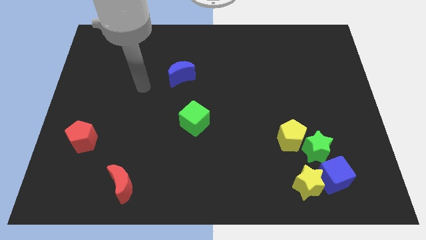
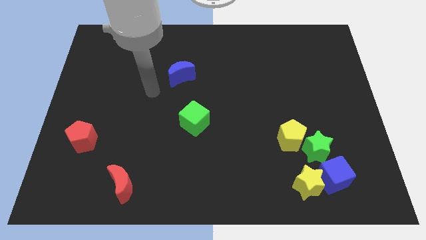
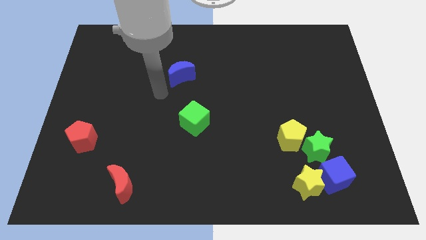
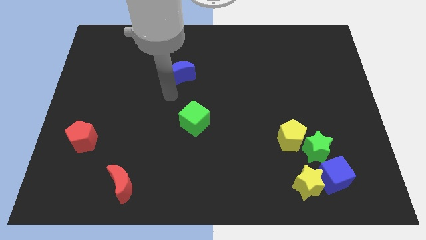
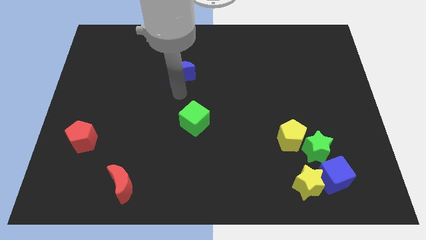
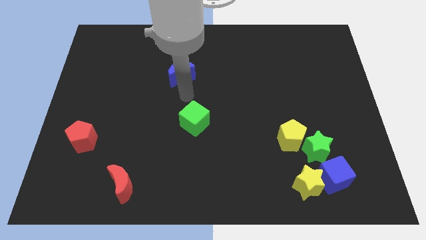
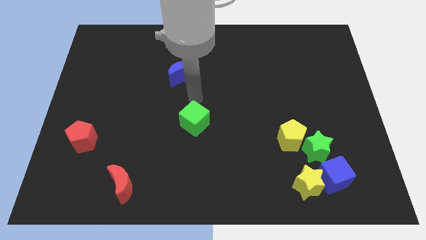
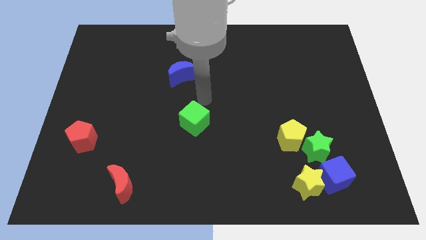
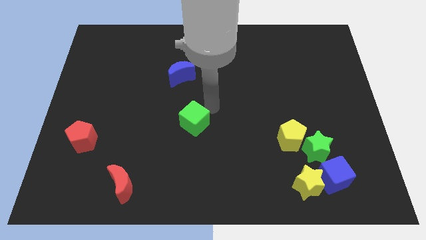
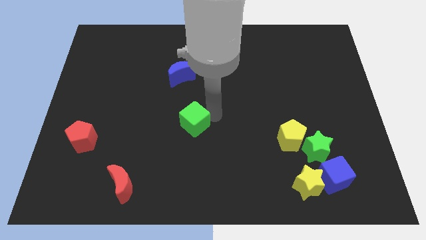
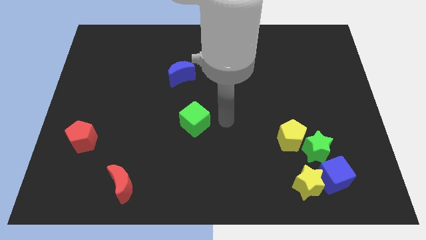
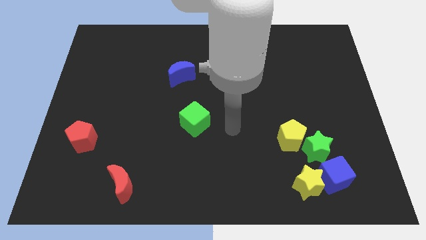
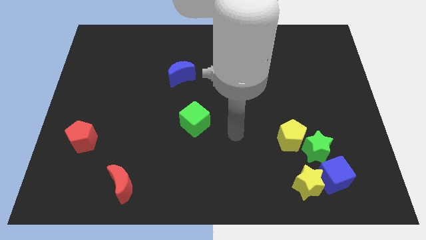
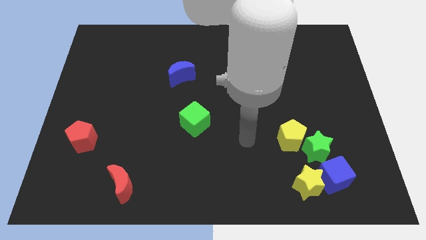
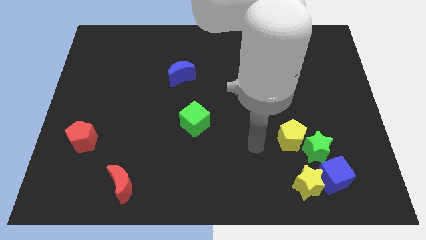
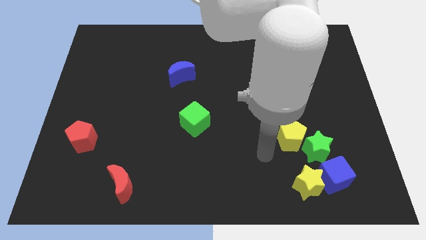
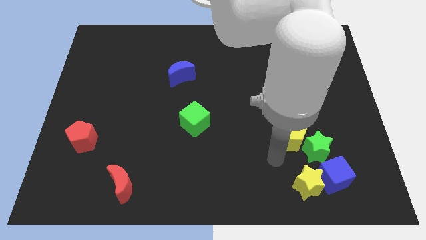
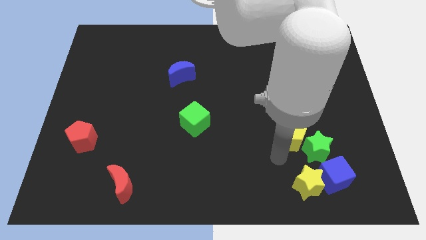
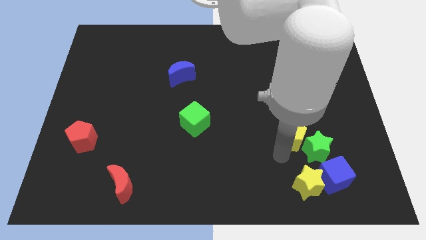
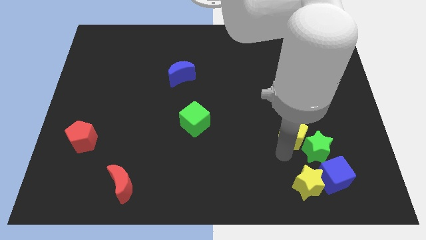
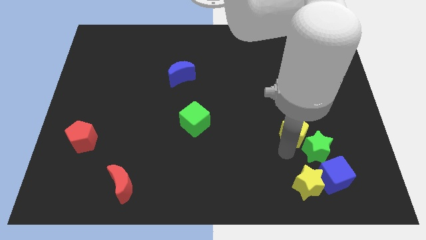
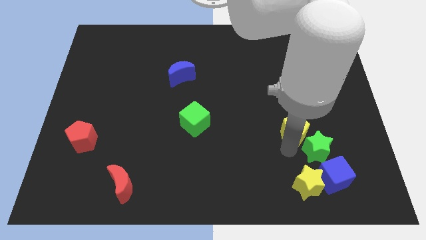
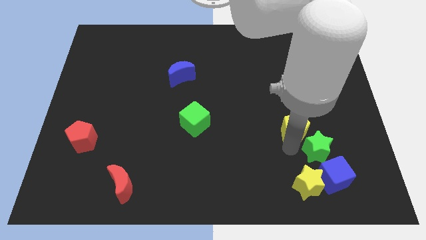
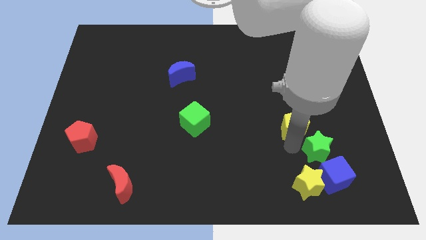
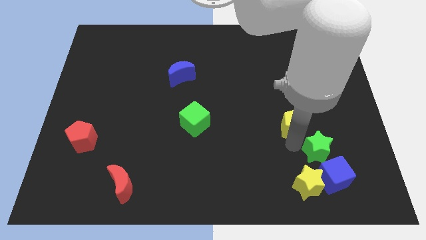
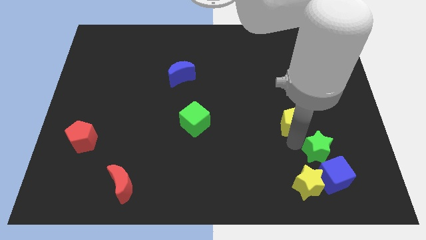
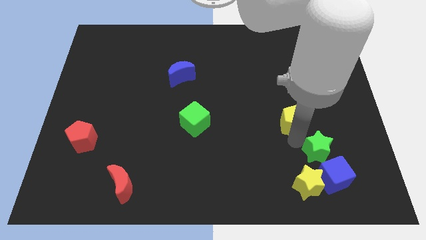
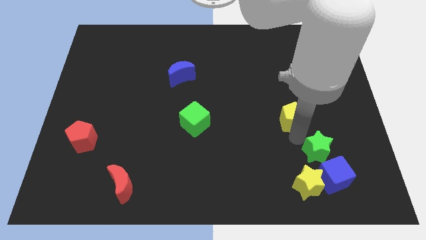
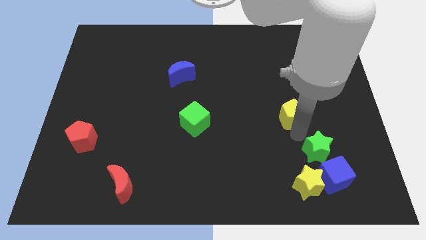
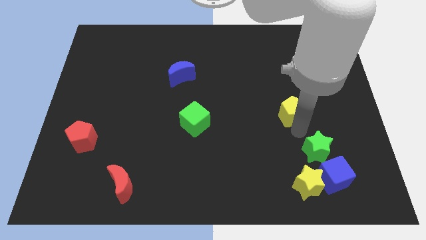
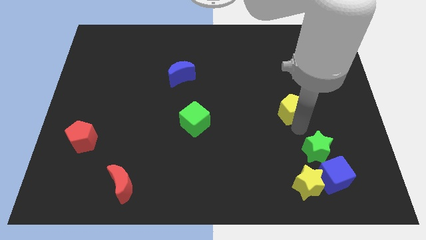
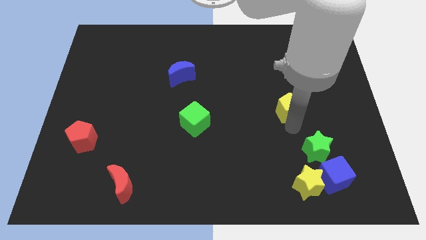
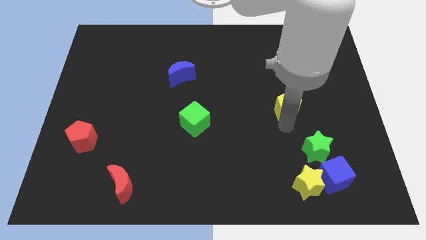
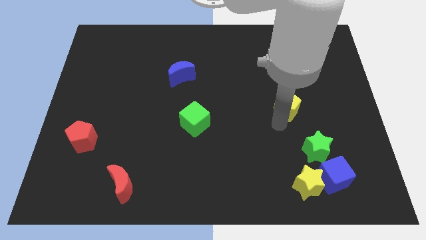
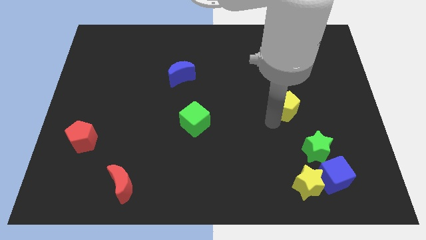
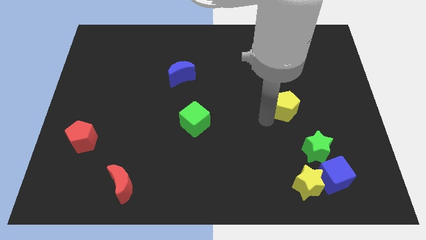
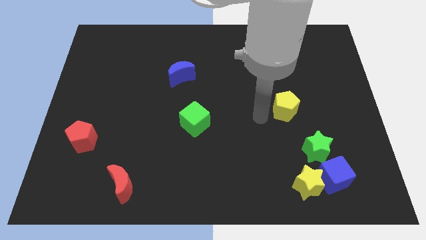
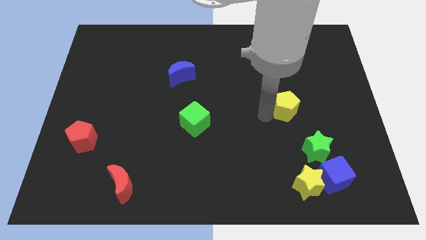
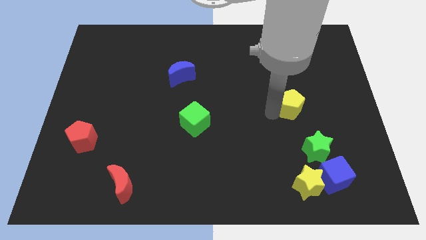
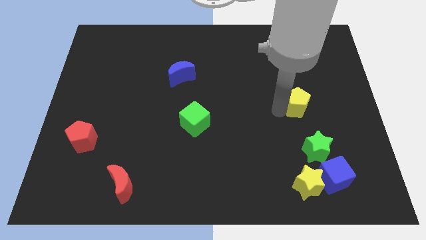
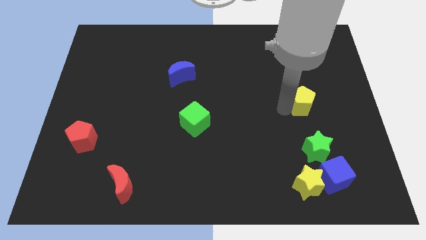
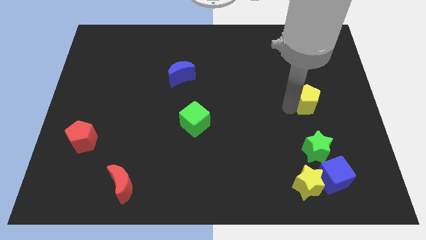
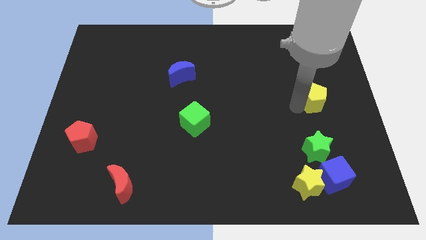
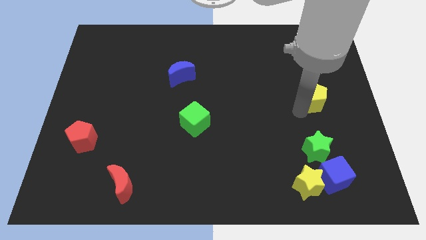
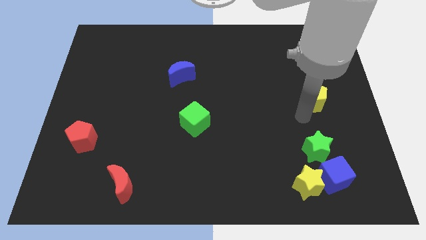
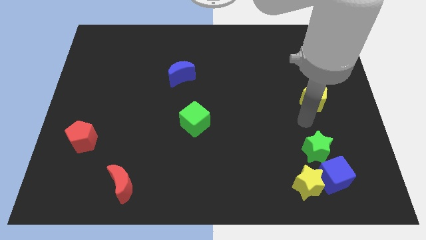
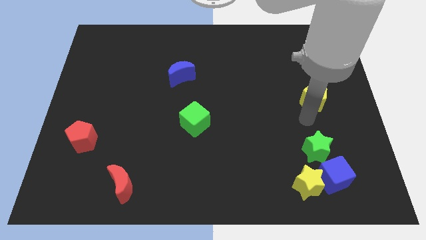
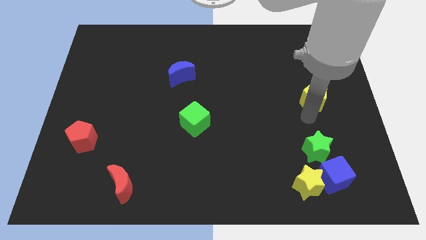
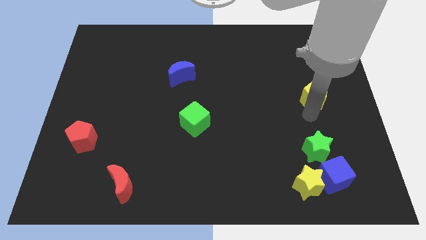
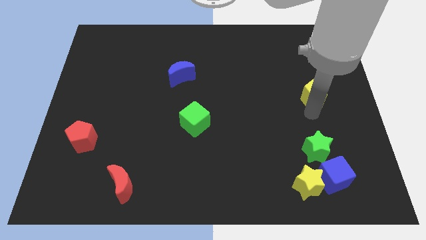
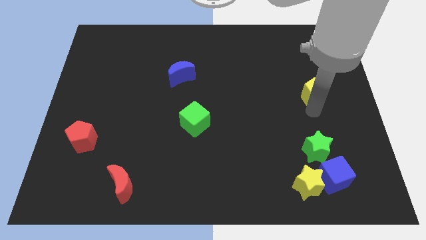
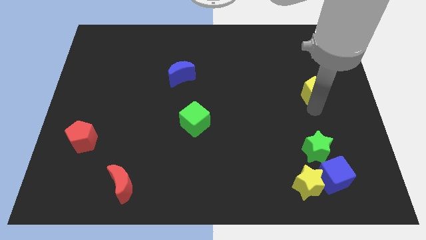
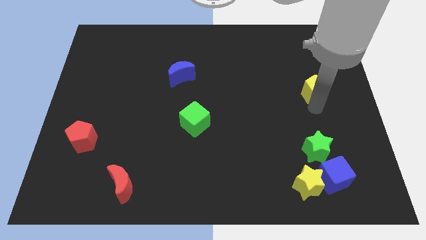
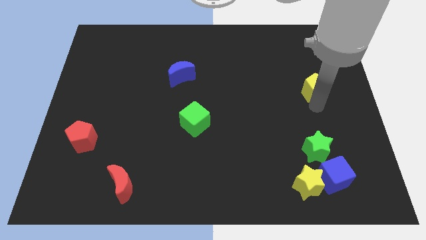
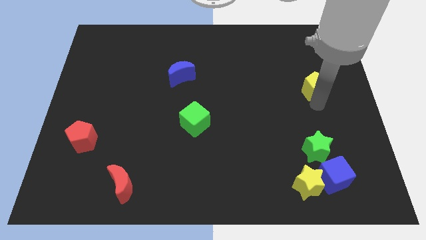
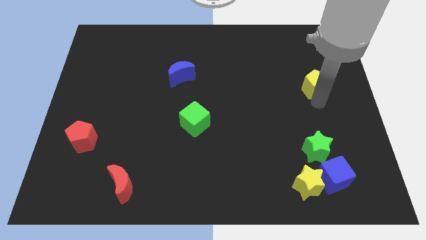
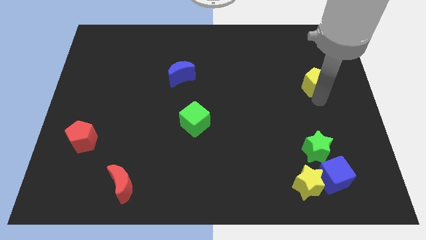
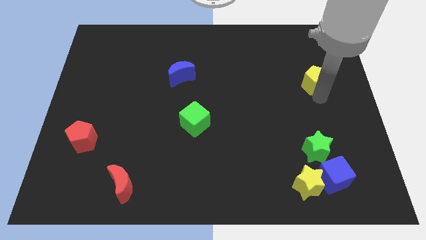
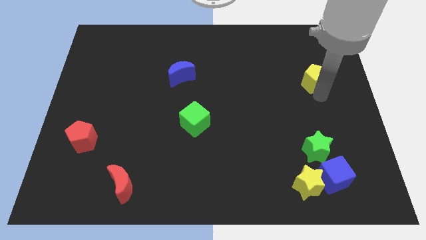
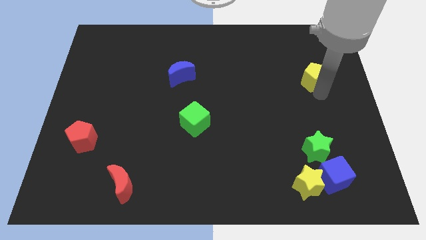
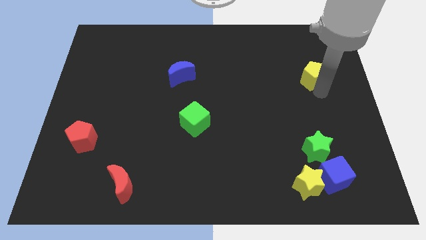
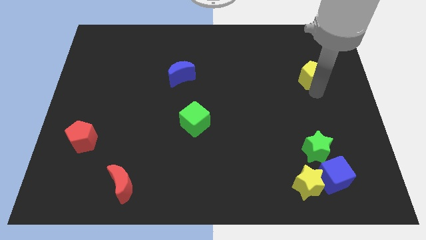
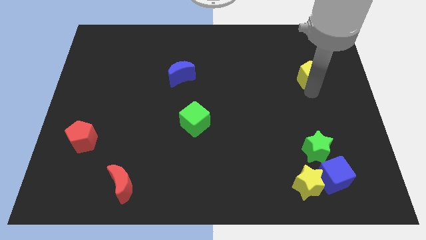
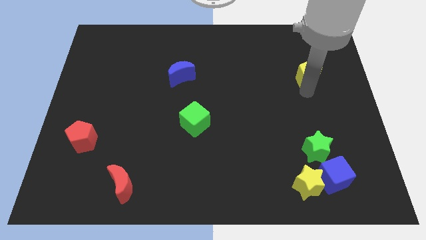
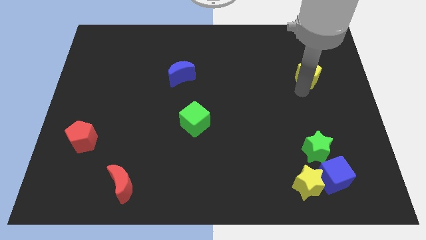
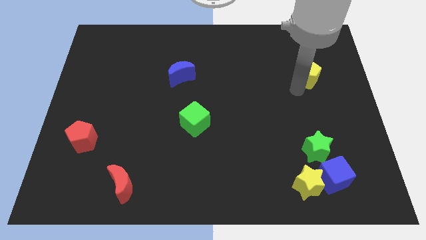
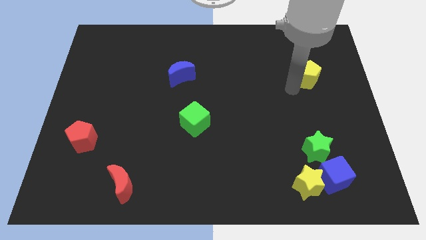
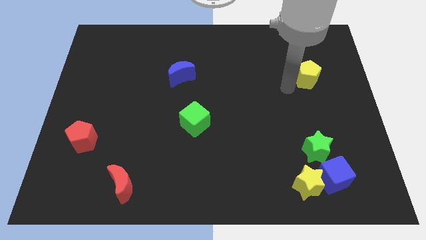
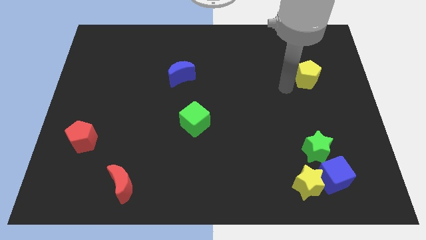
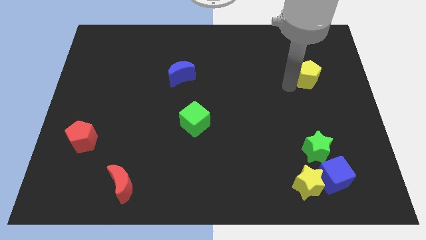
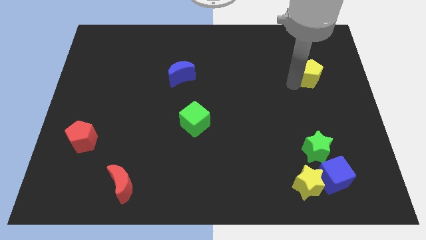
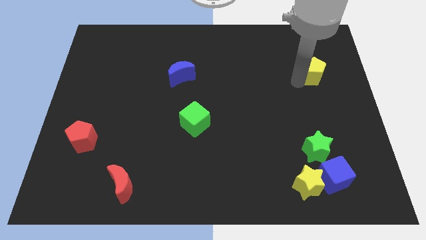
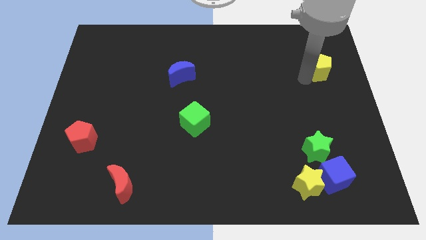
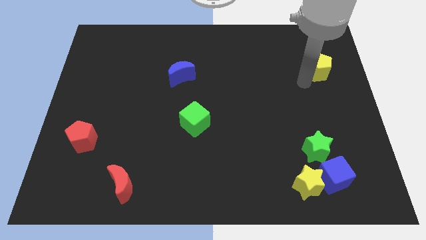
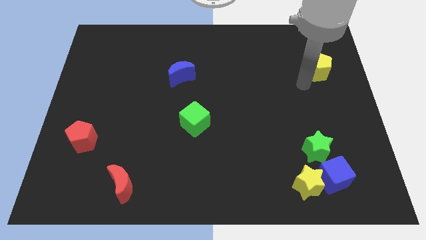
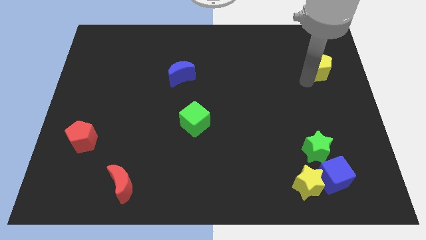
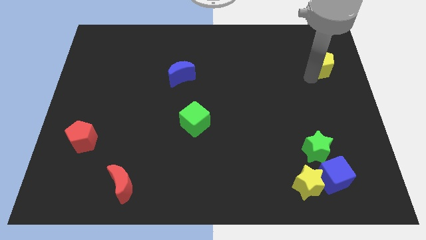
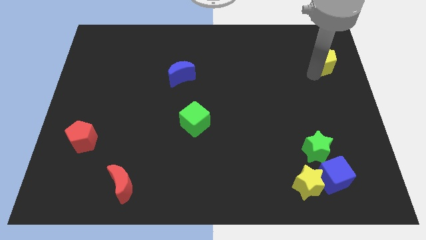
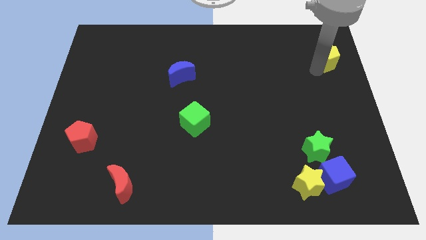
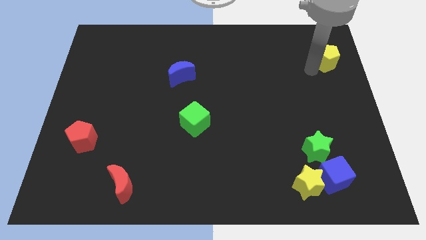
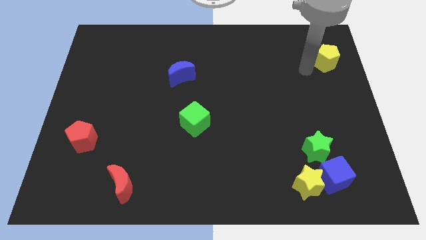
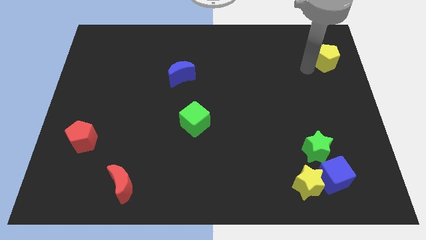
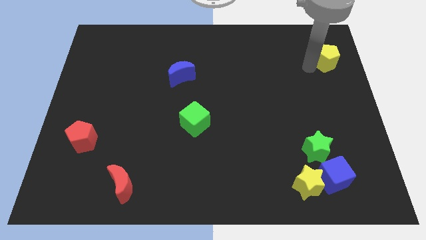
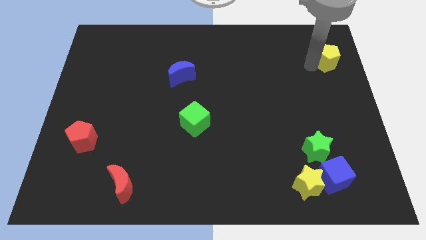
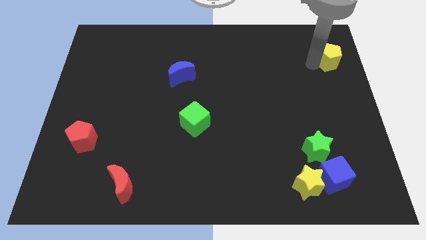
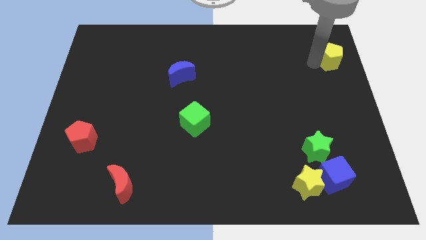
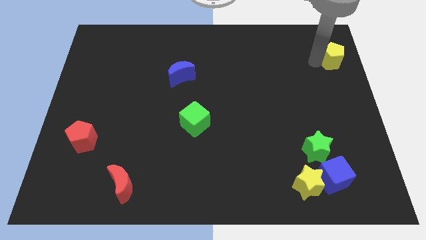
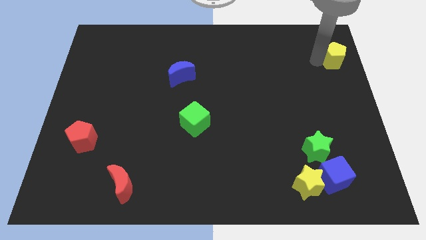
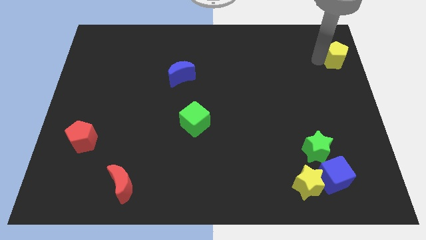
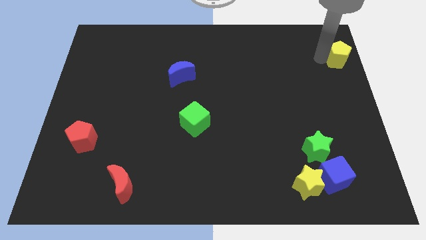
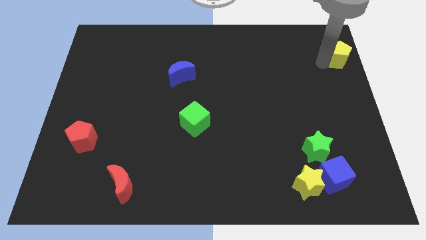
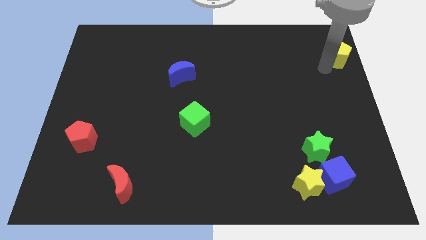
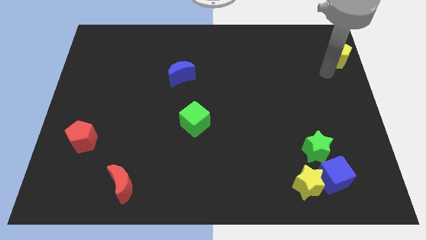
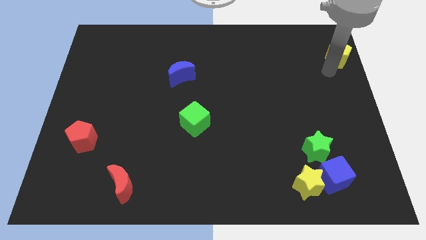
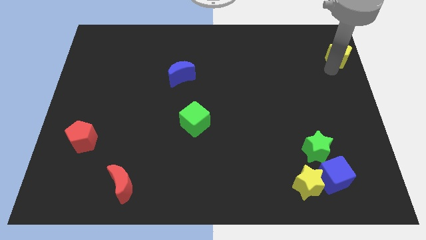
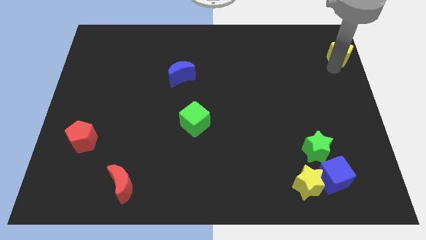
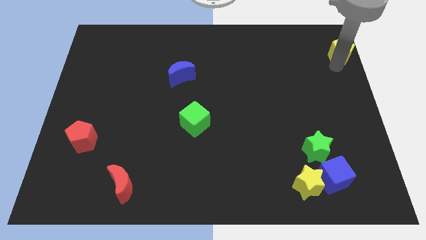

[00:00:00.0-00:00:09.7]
slide the yellow pentagon to the top right
